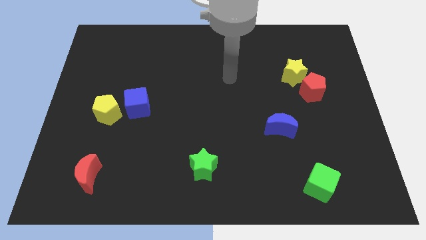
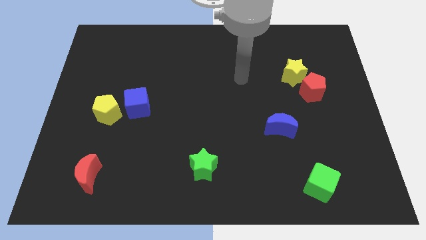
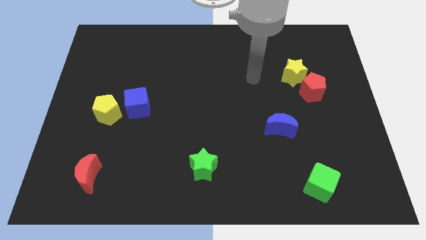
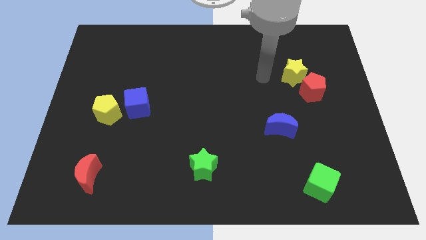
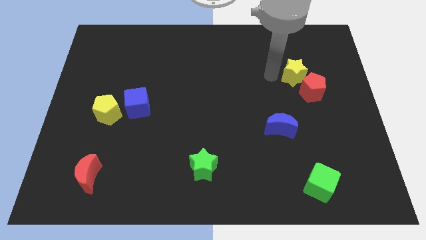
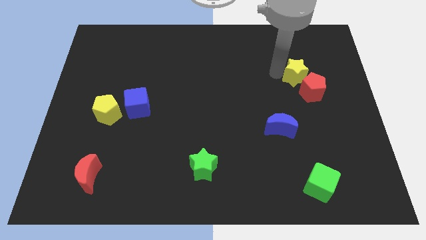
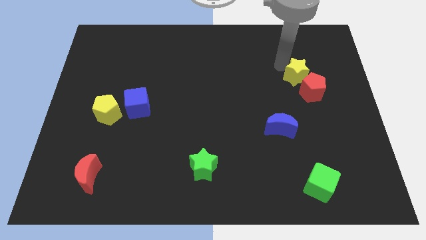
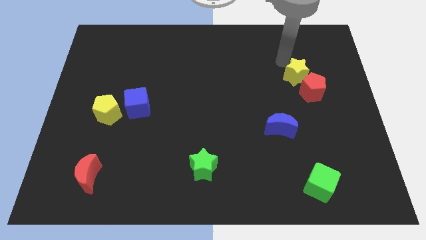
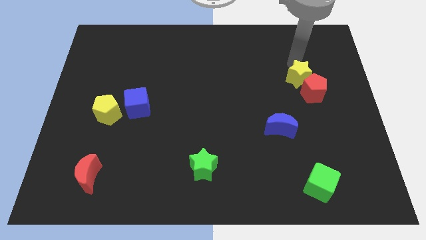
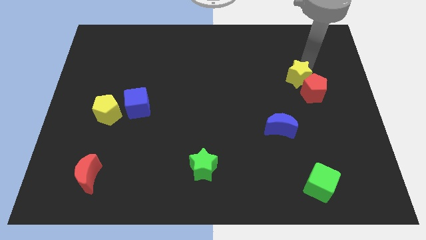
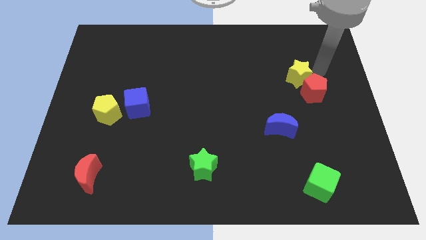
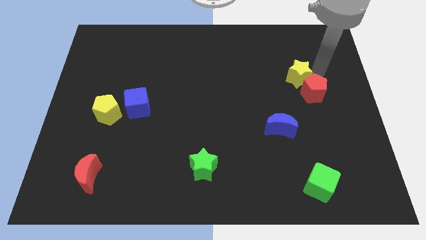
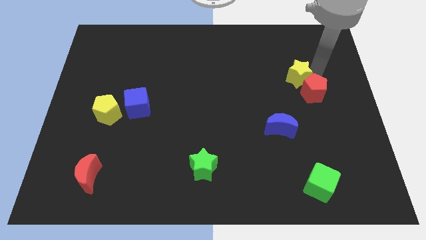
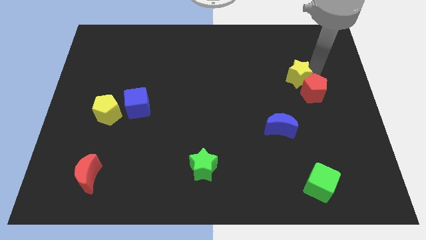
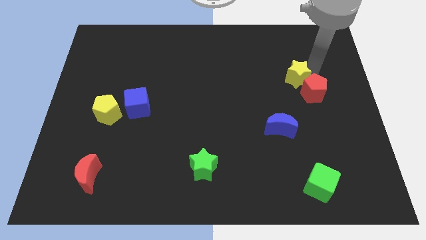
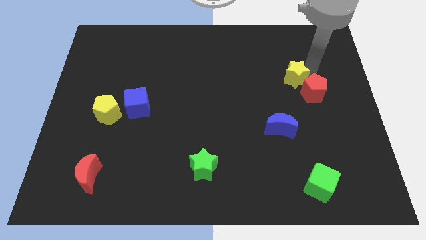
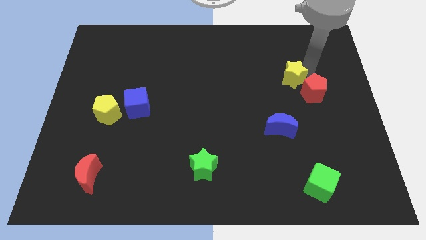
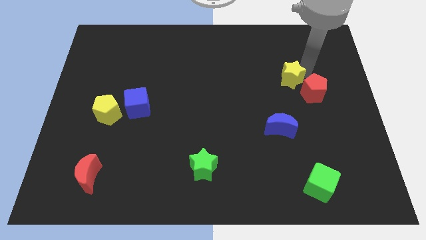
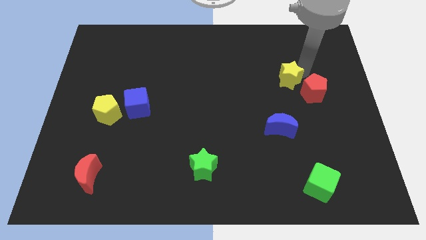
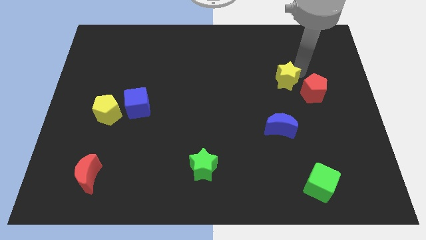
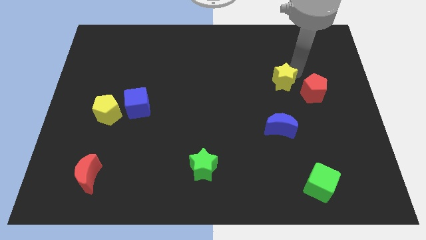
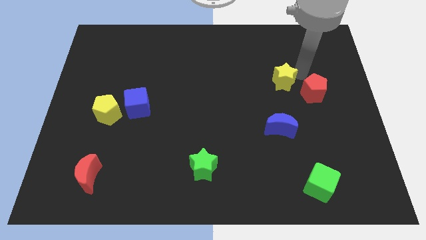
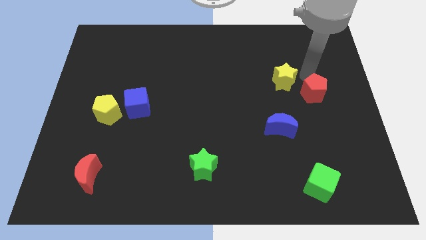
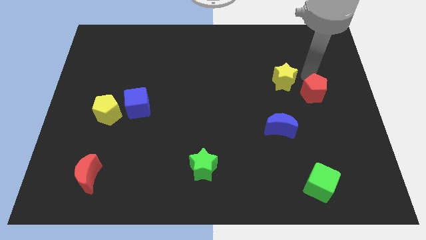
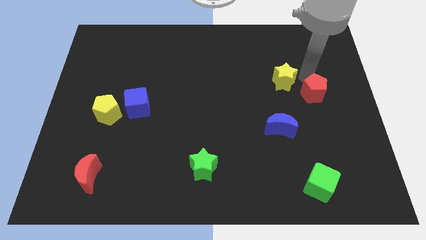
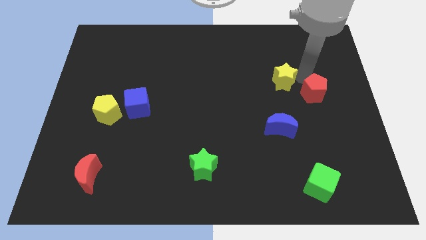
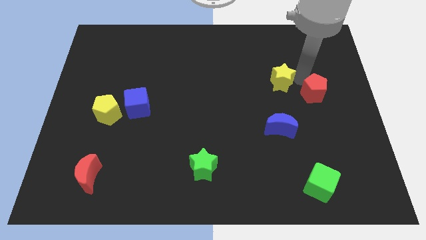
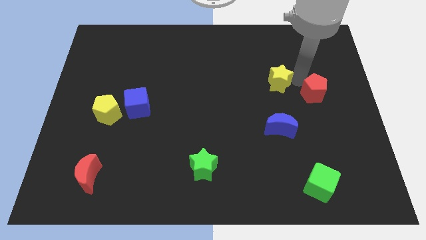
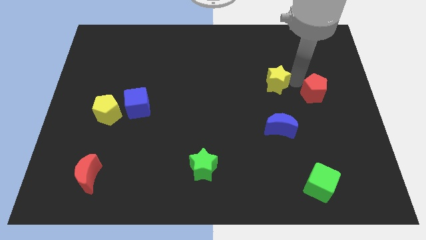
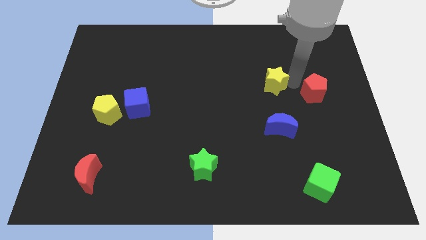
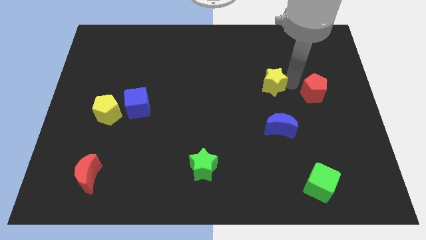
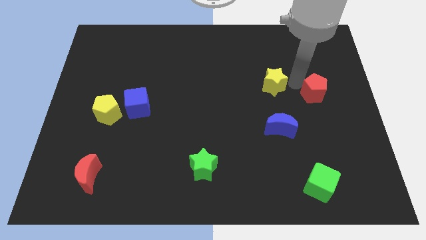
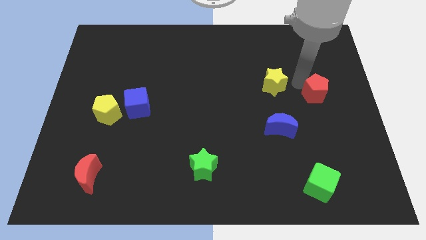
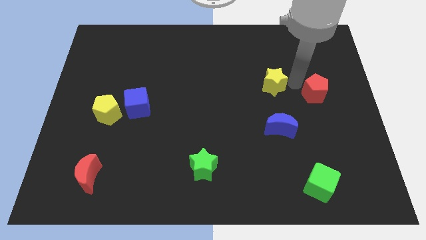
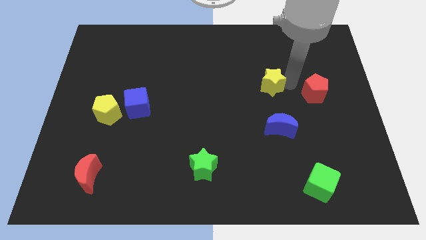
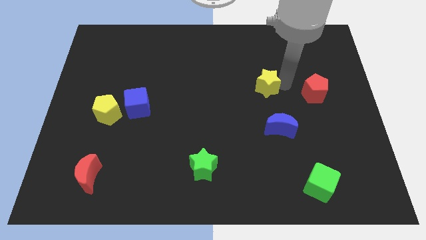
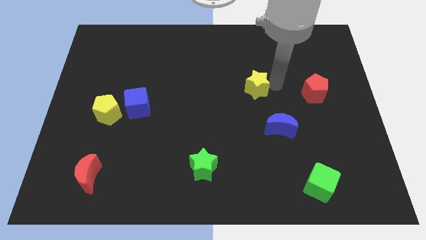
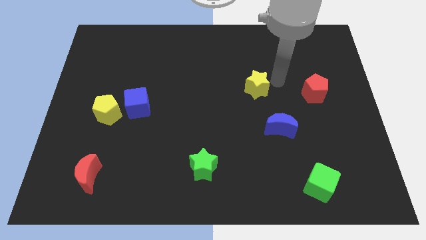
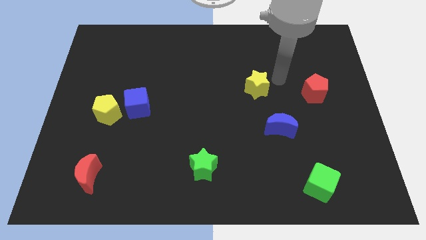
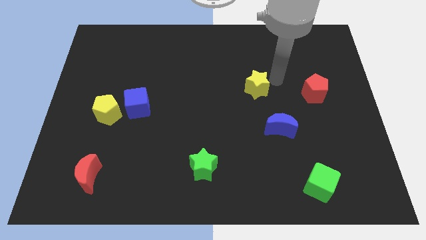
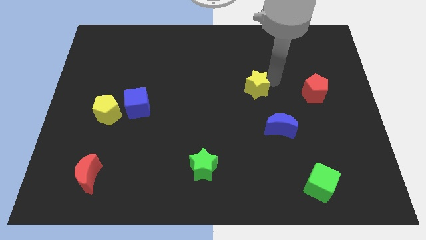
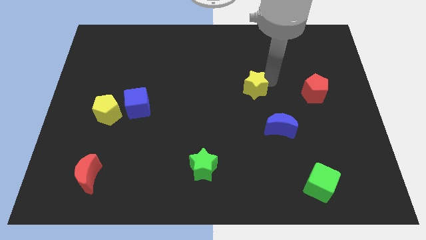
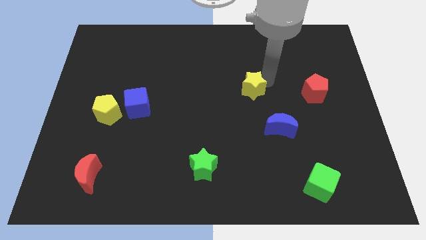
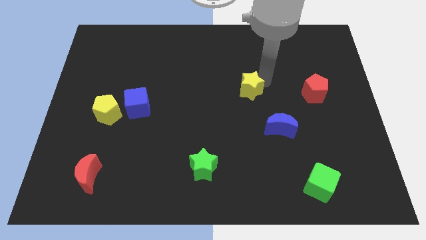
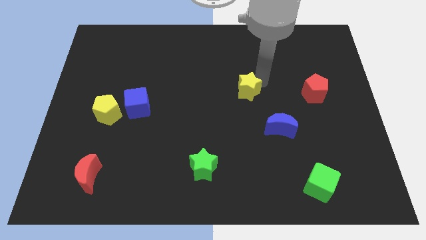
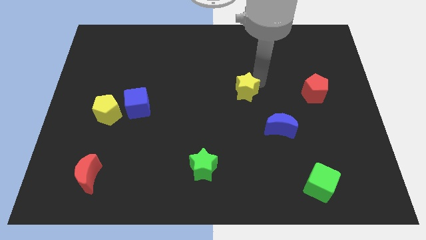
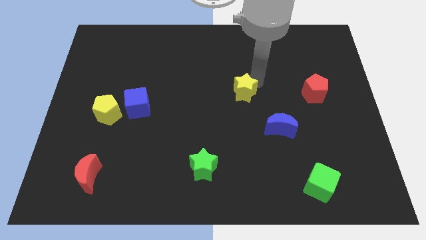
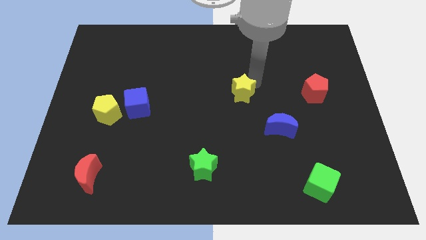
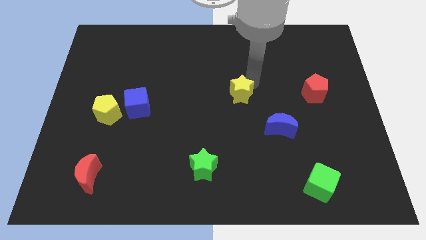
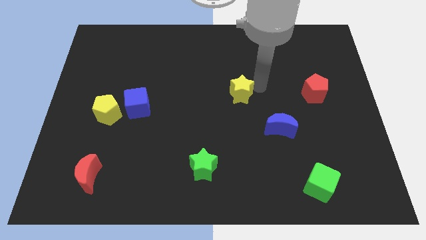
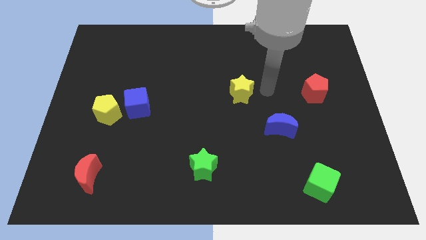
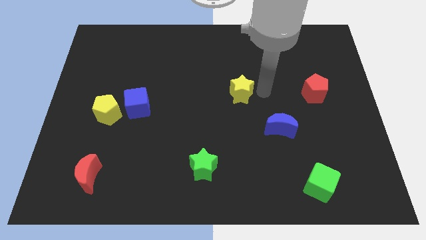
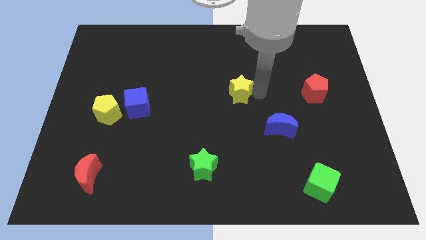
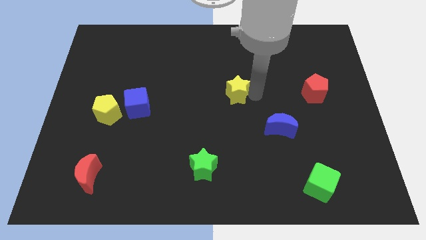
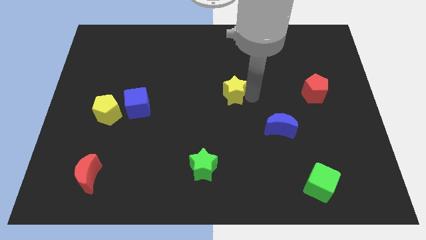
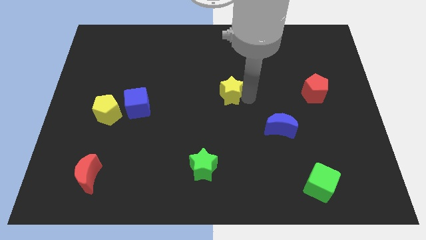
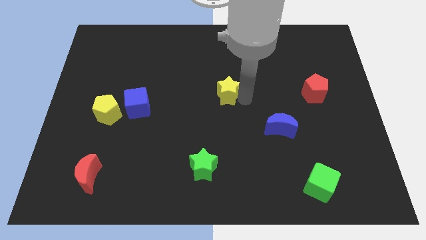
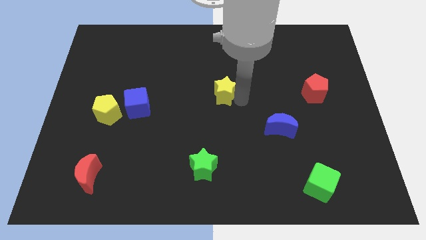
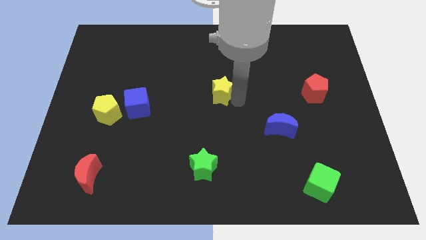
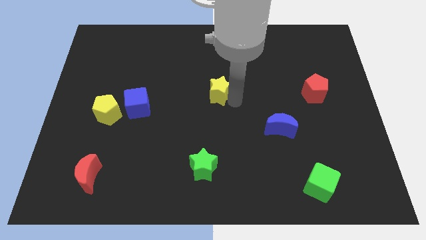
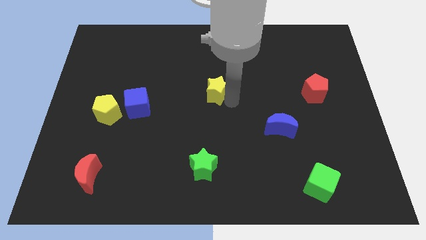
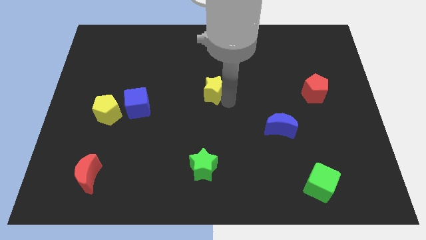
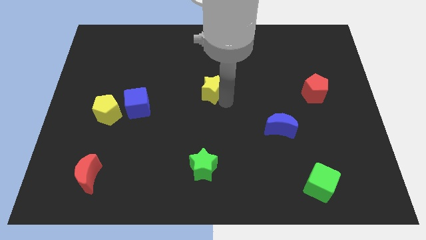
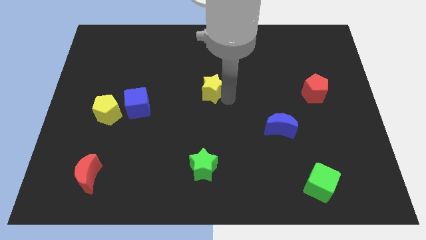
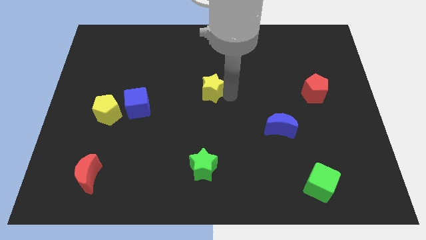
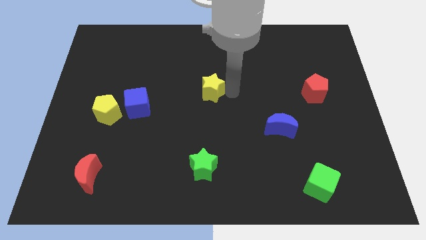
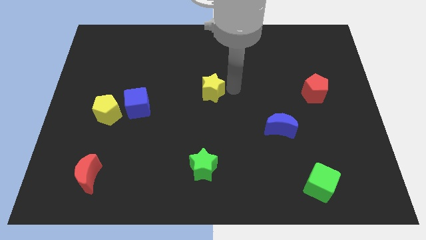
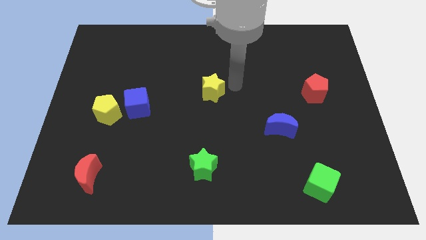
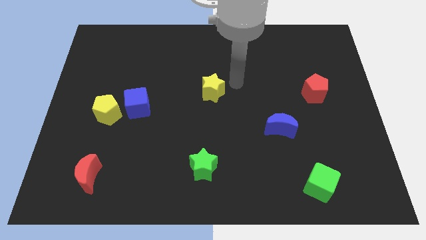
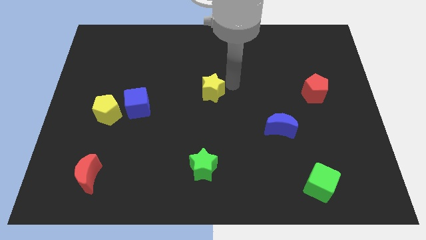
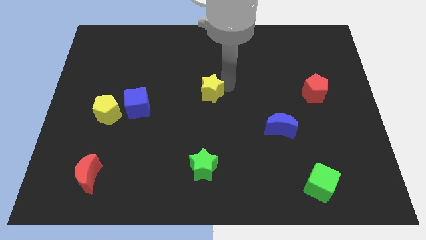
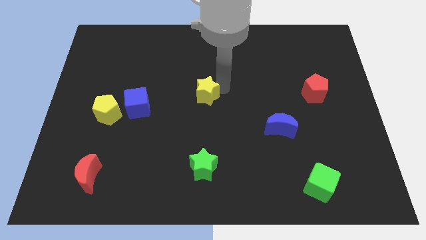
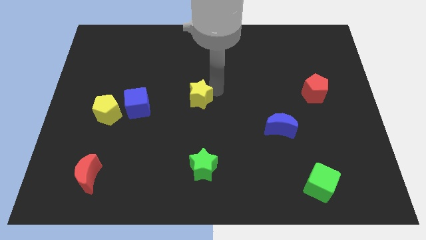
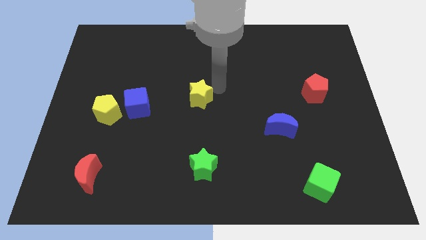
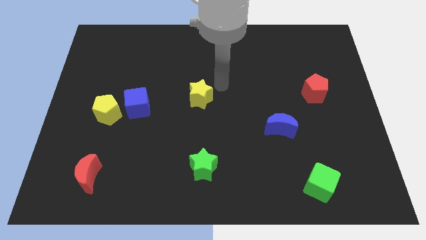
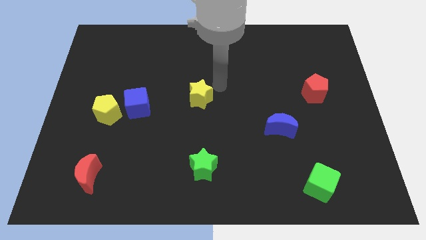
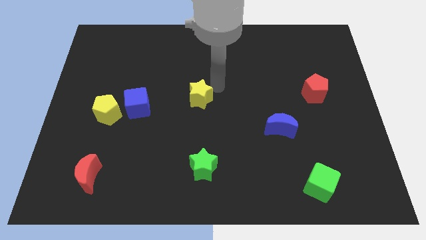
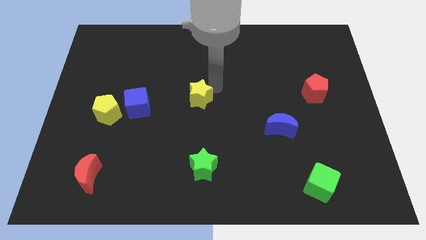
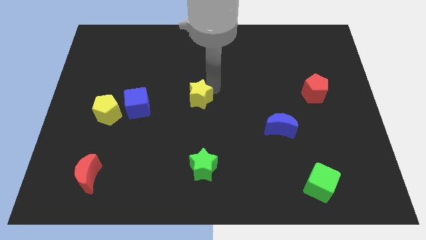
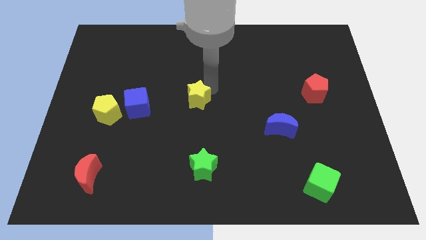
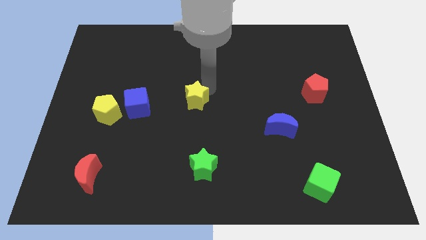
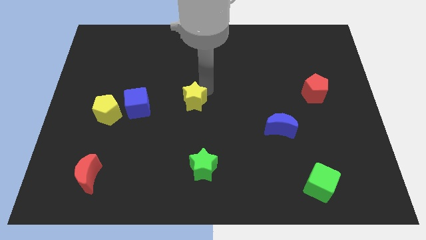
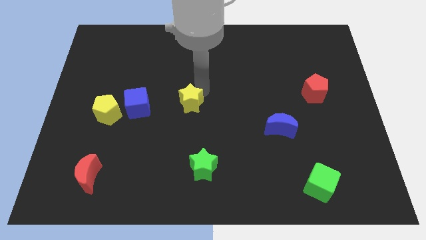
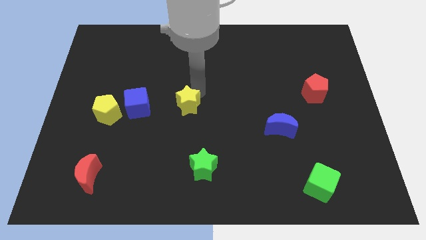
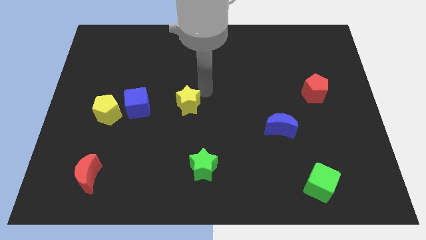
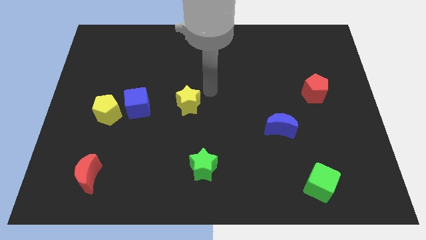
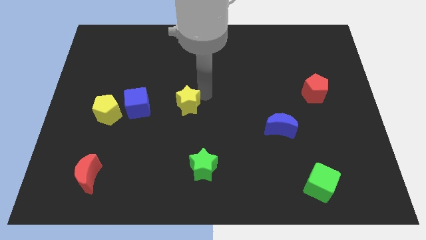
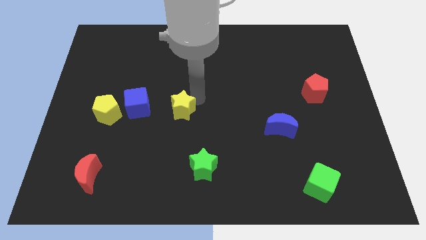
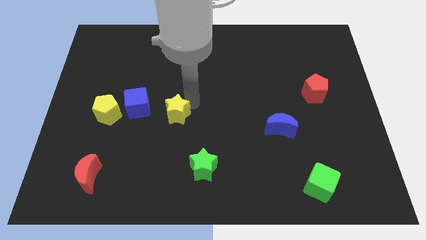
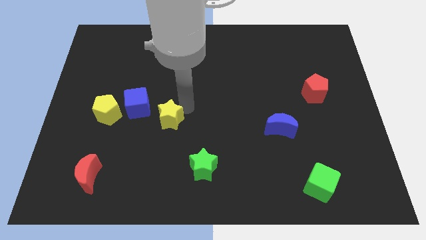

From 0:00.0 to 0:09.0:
slide the yellow star to the bottom right of the blue cube
